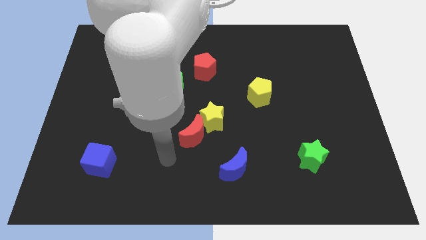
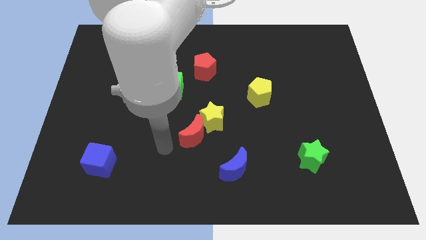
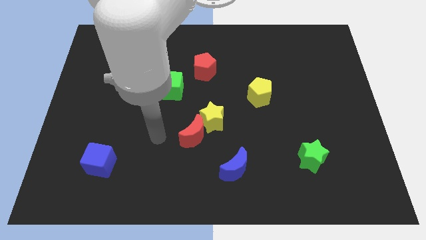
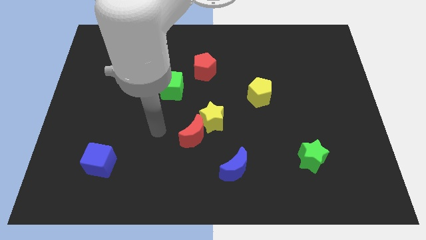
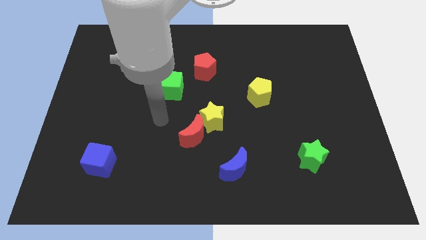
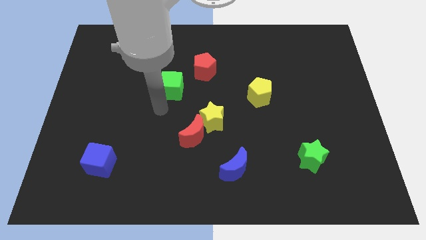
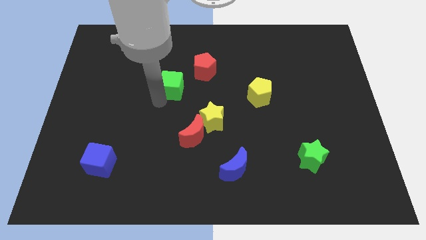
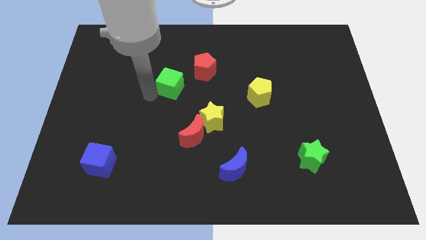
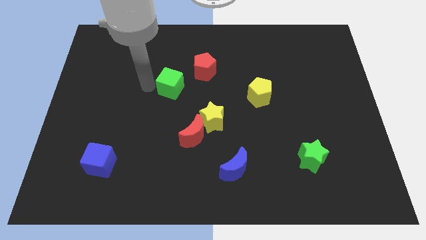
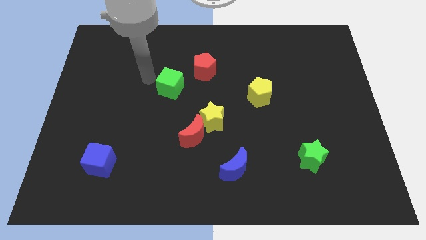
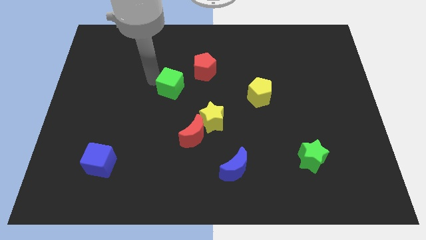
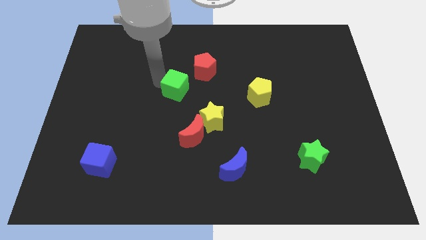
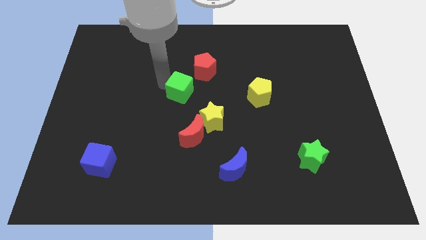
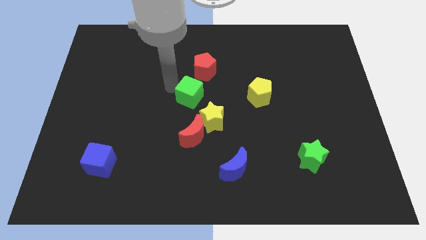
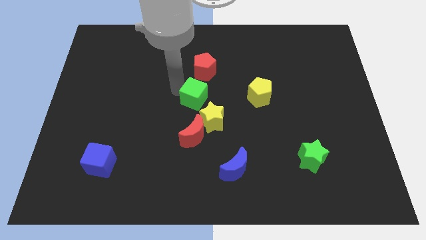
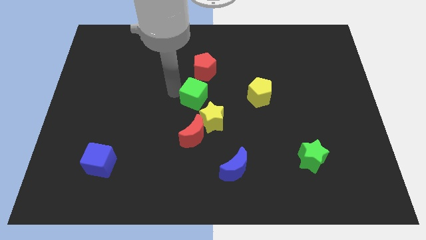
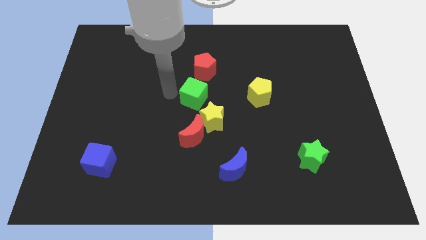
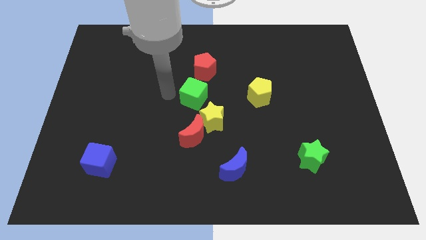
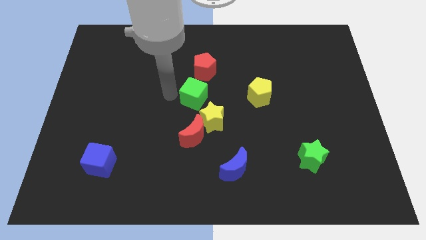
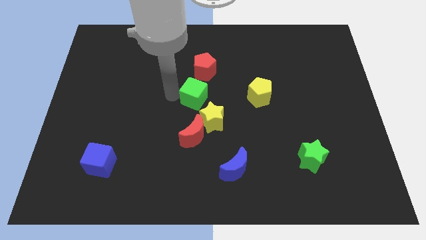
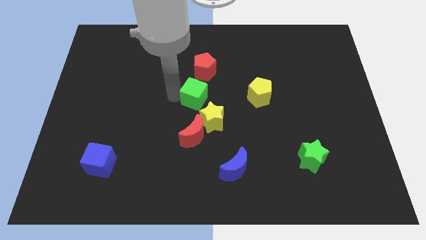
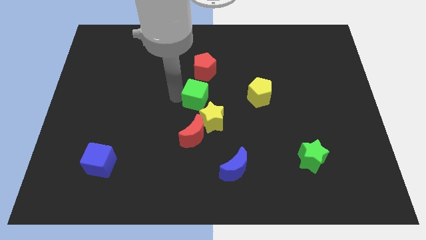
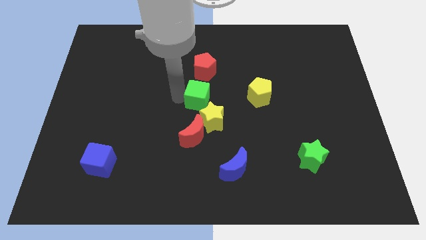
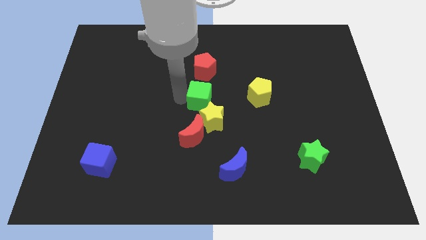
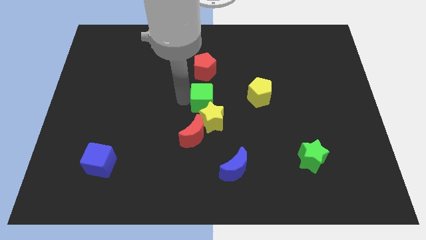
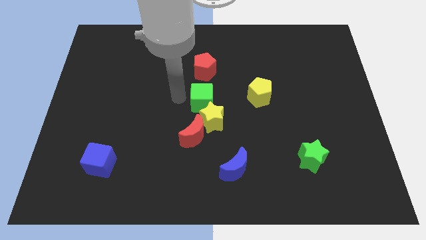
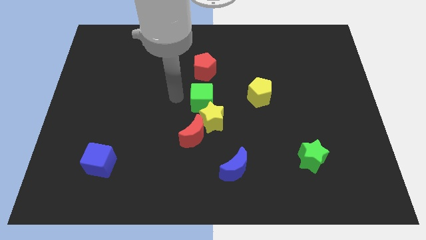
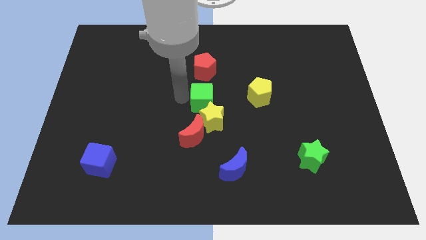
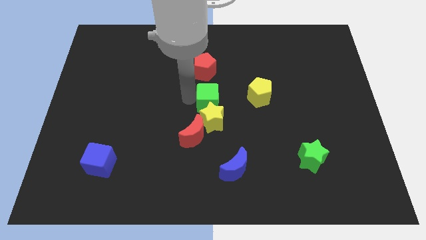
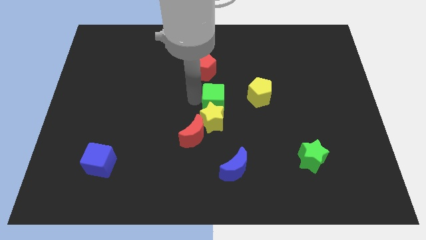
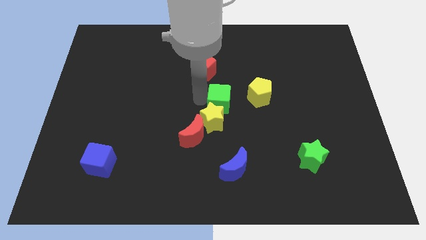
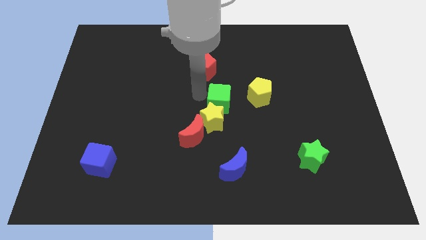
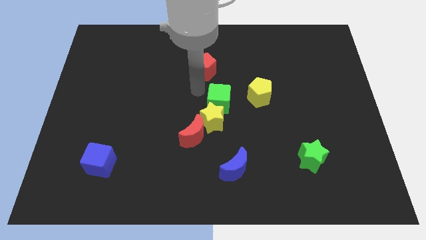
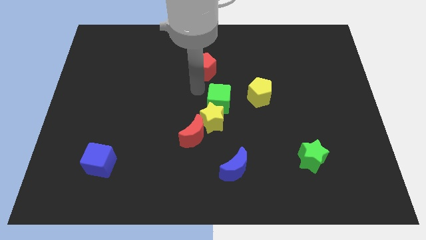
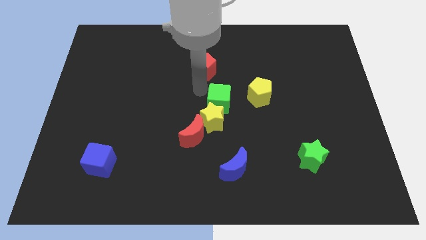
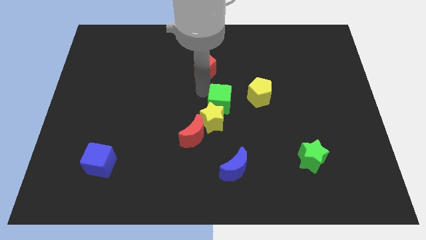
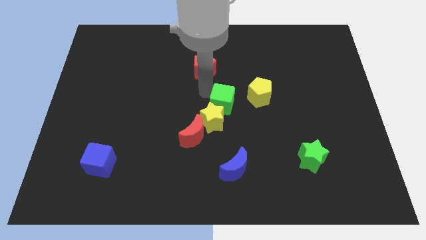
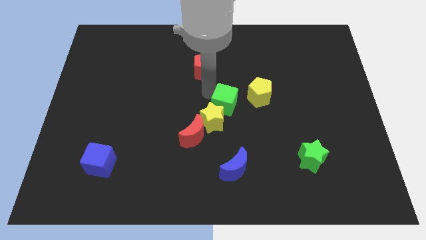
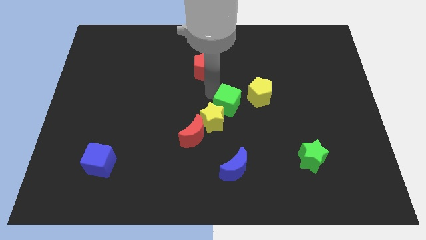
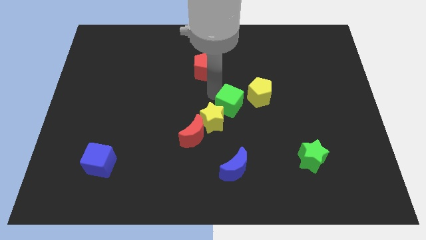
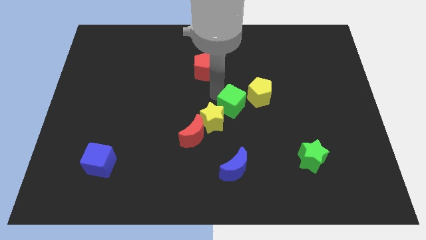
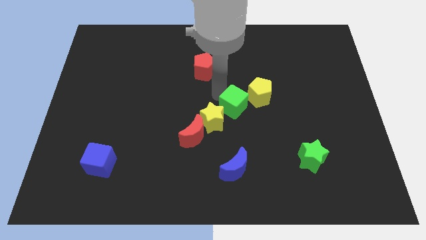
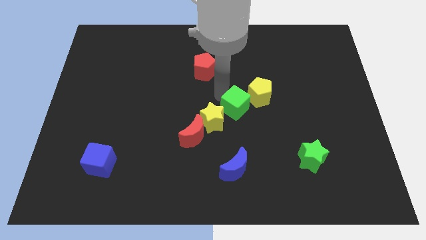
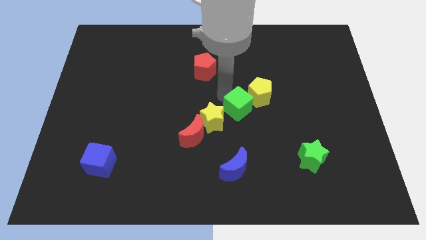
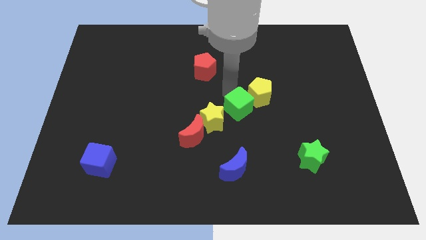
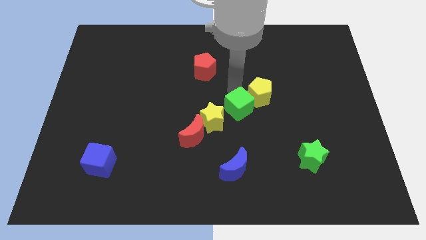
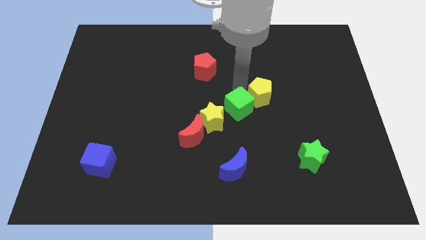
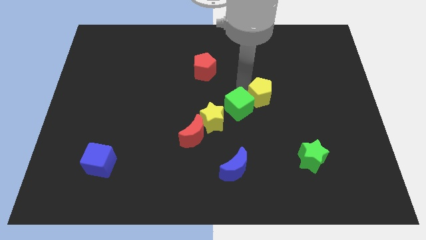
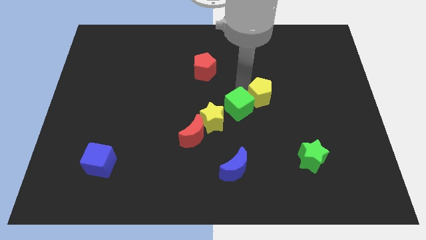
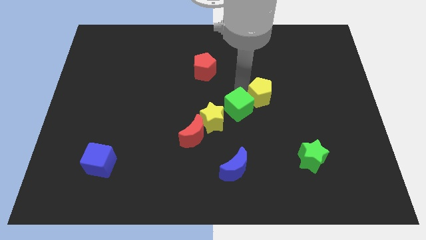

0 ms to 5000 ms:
push the green cube to the top side of the blue moon

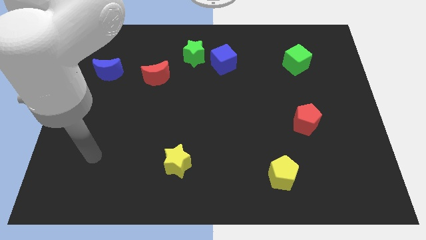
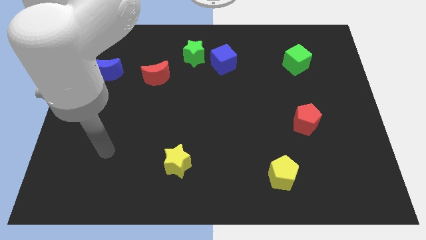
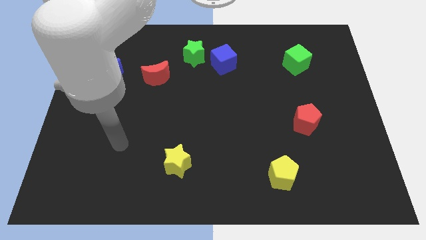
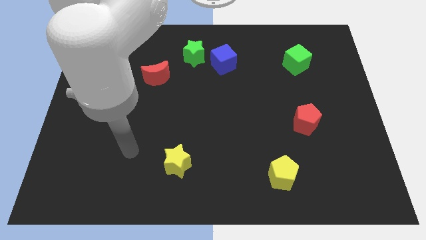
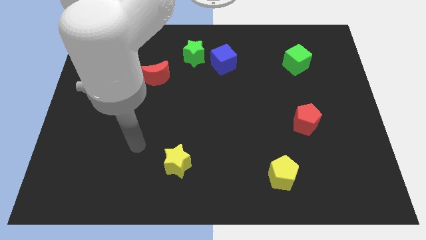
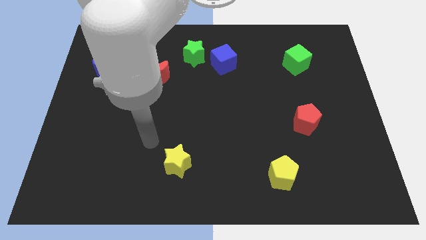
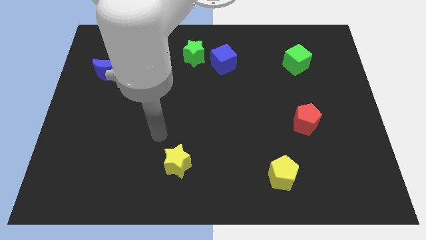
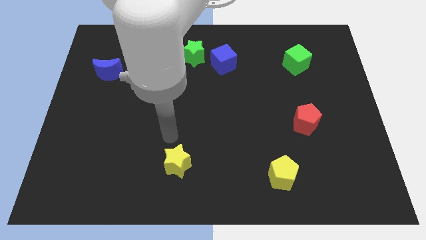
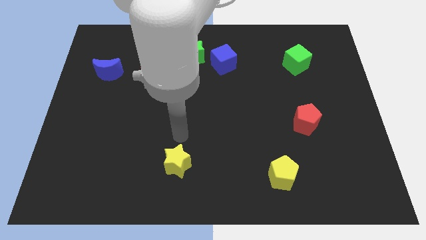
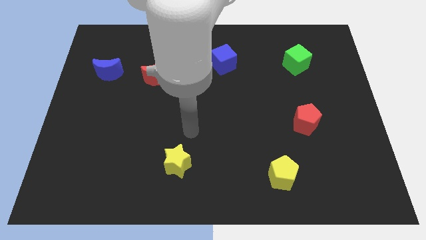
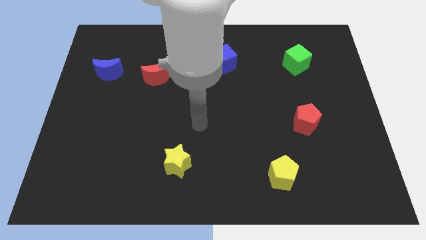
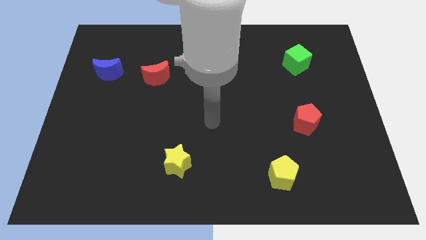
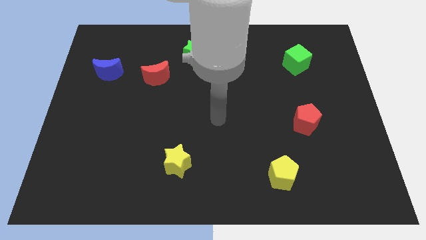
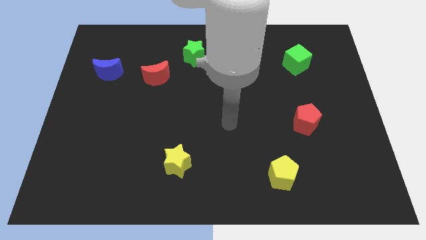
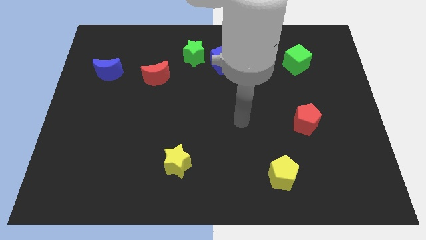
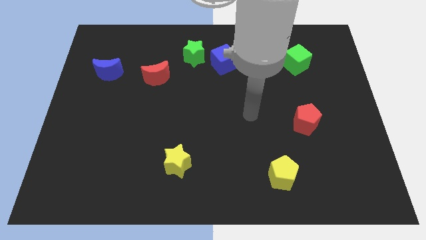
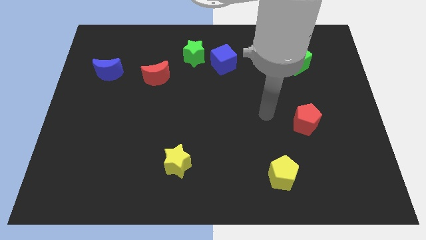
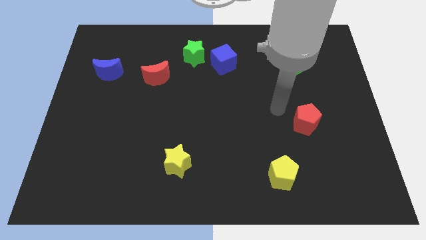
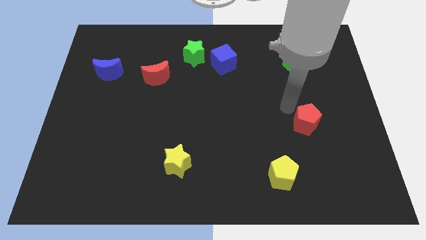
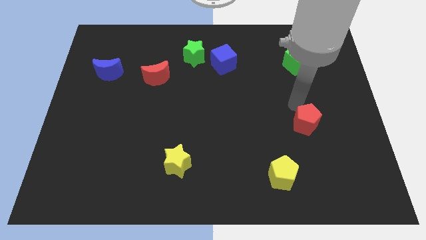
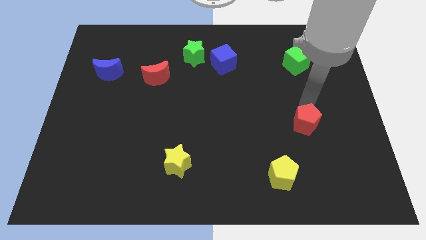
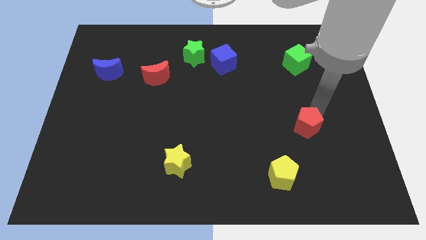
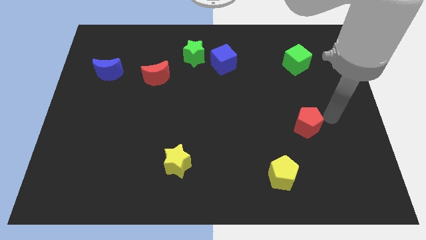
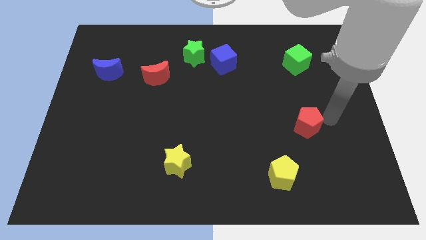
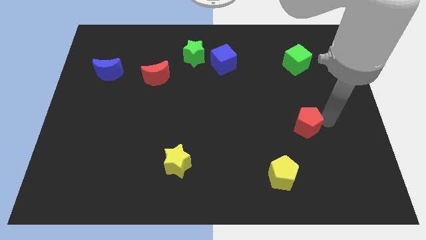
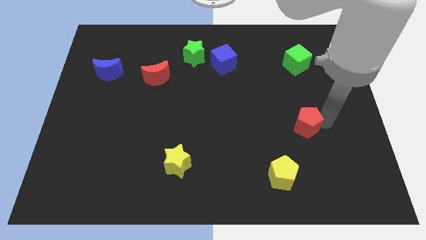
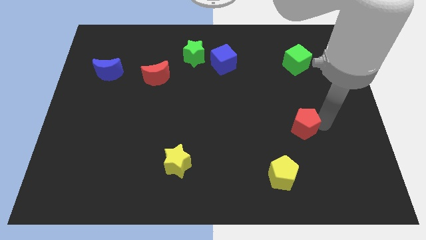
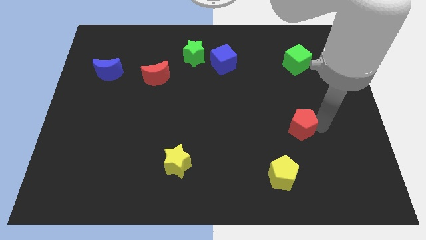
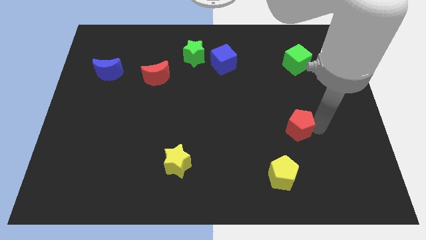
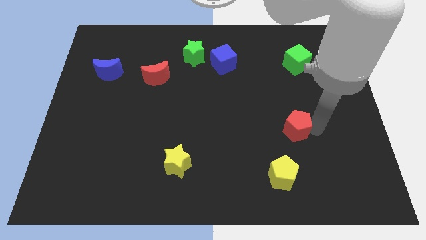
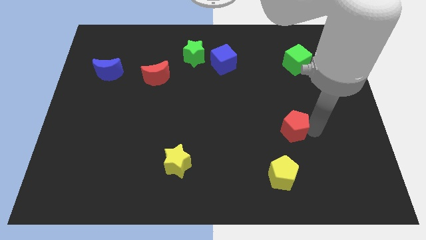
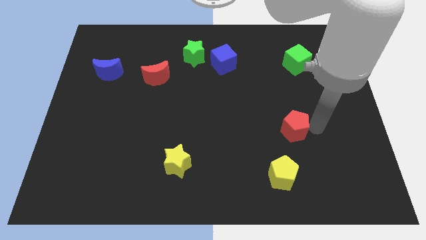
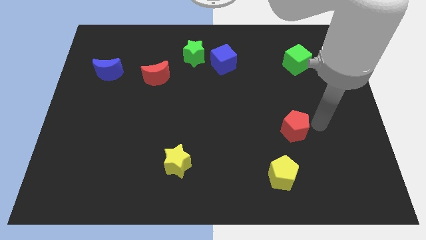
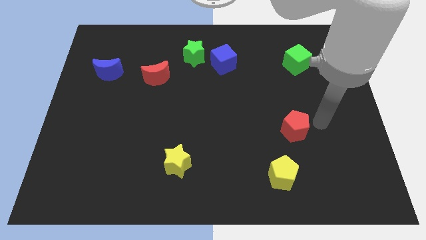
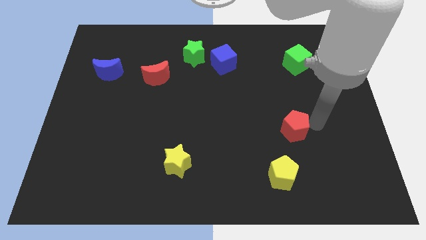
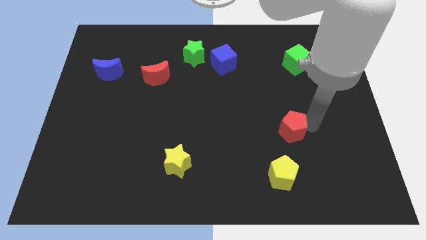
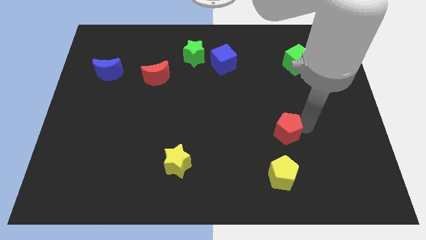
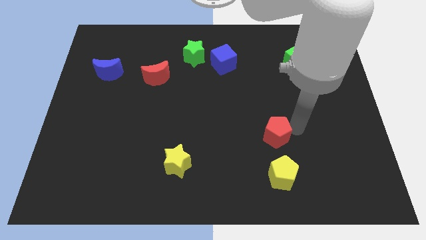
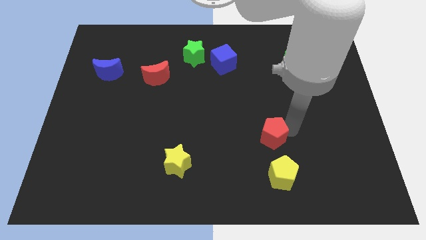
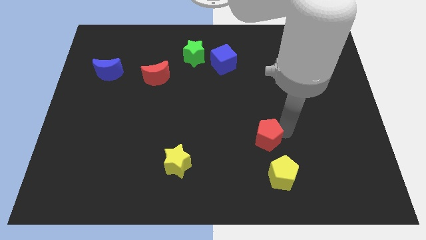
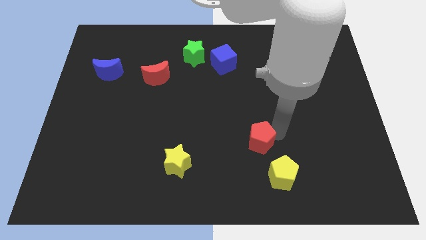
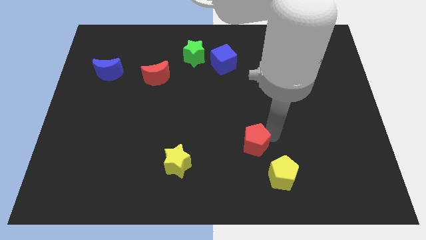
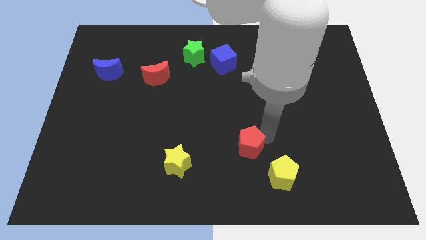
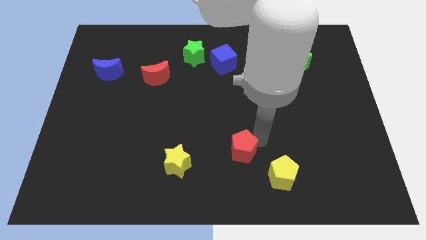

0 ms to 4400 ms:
slide the red pentagon just right of the yellow star
